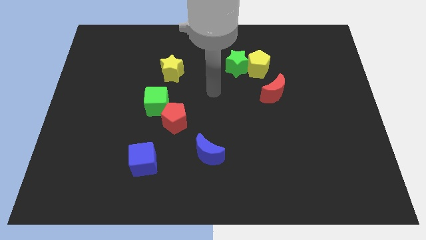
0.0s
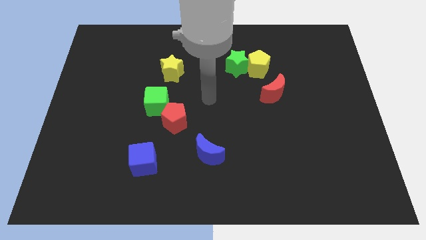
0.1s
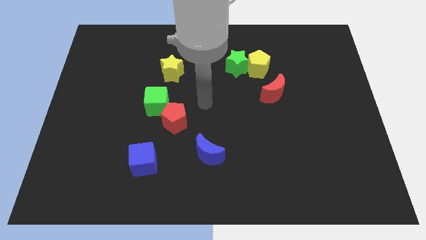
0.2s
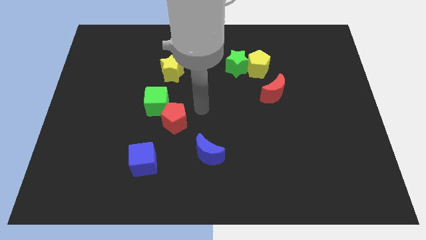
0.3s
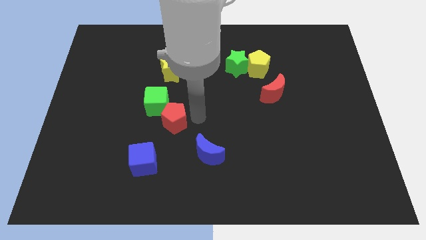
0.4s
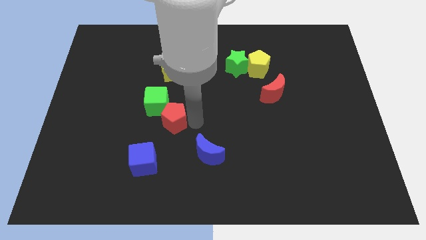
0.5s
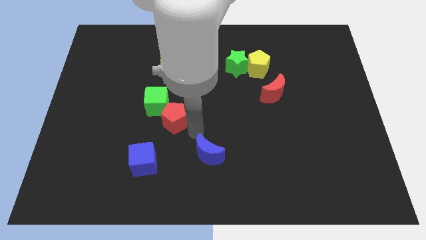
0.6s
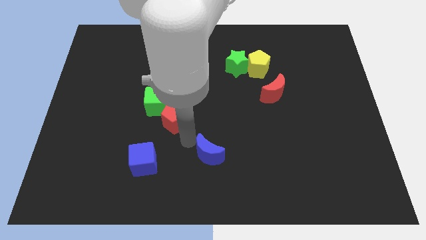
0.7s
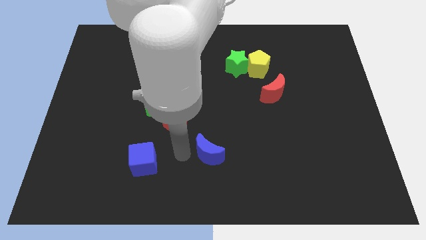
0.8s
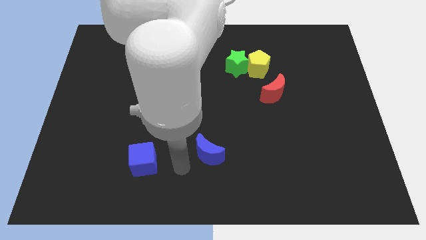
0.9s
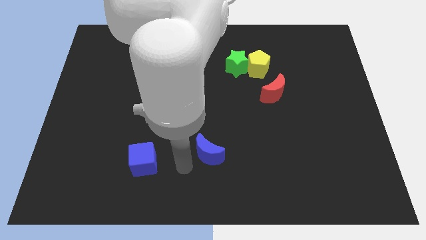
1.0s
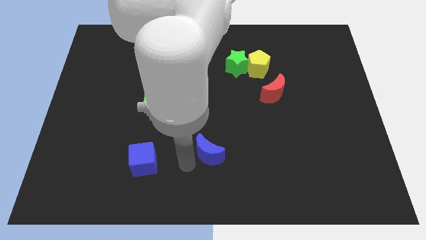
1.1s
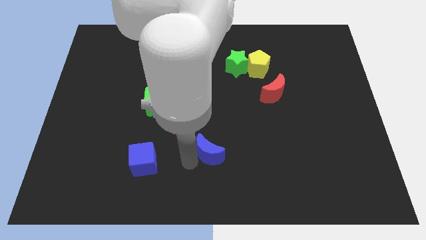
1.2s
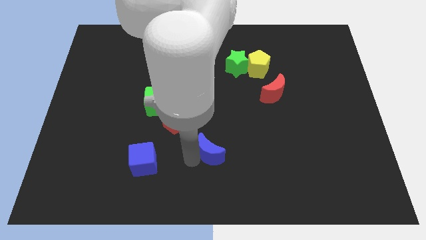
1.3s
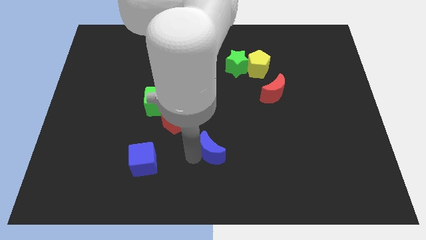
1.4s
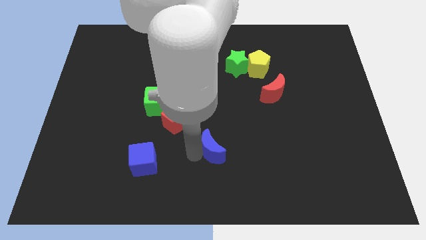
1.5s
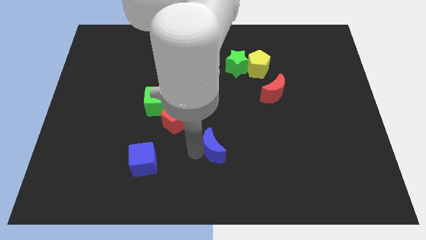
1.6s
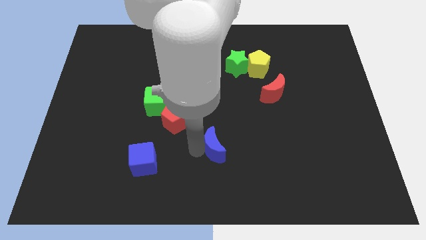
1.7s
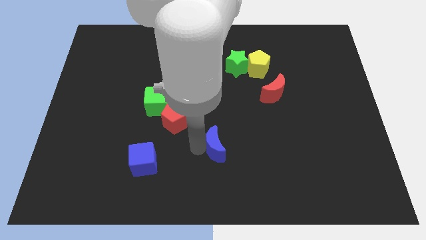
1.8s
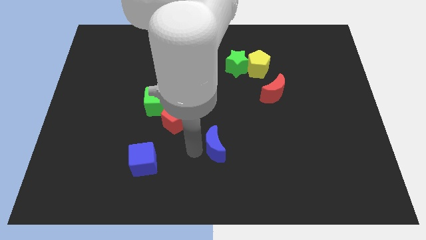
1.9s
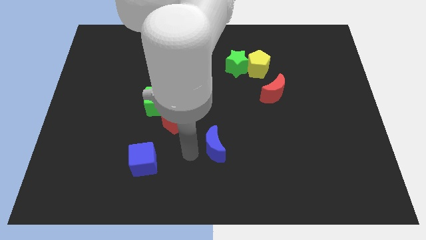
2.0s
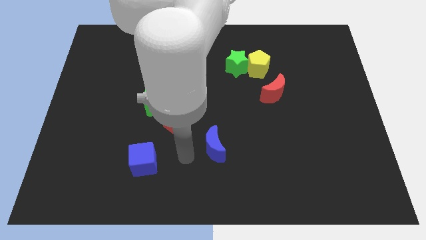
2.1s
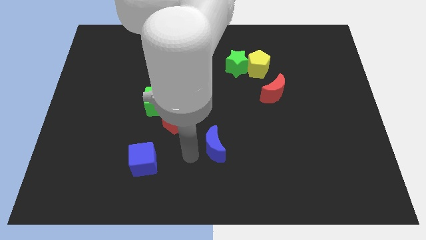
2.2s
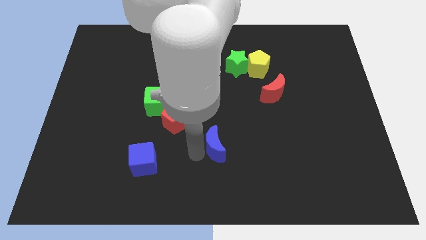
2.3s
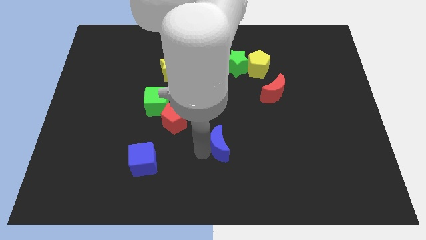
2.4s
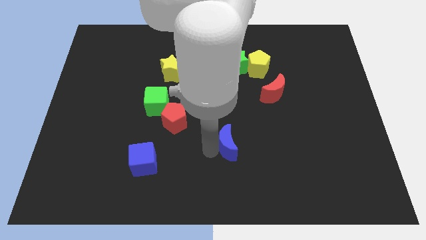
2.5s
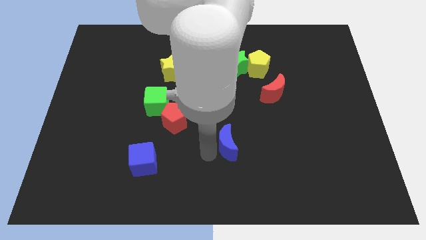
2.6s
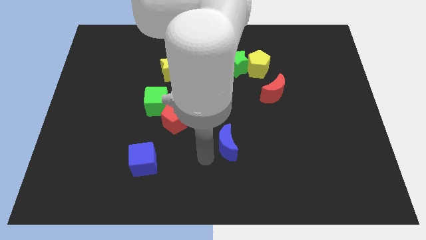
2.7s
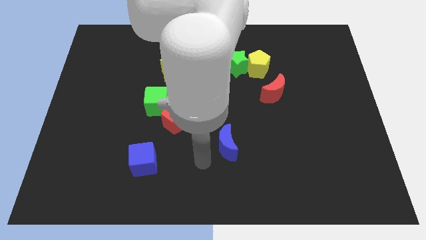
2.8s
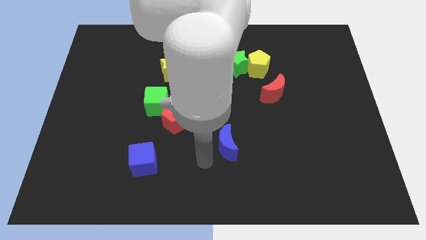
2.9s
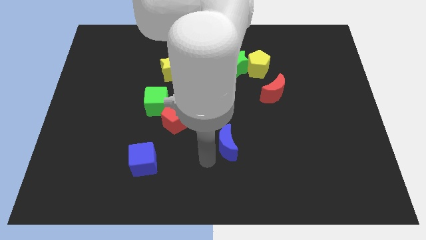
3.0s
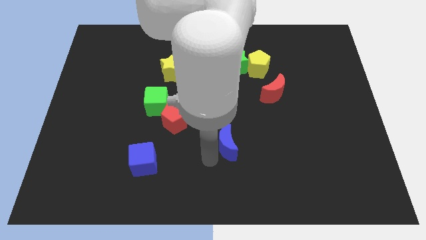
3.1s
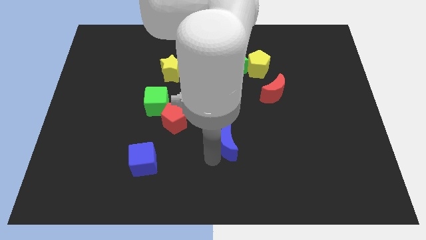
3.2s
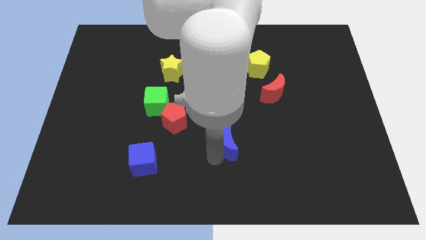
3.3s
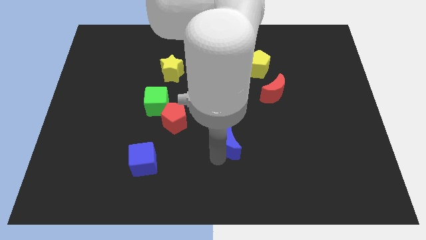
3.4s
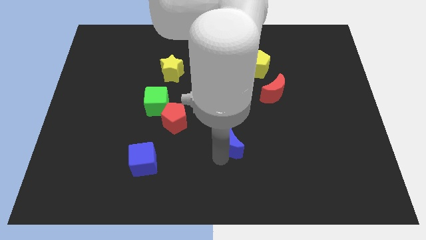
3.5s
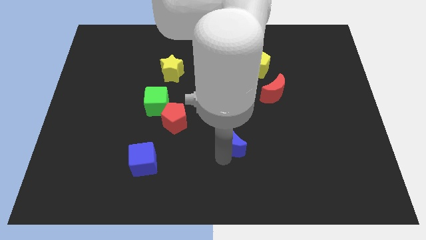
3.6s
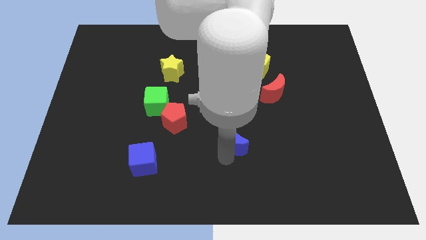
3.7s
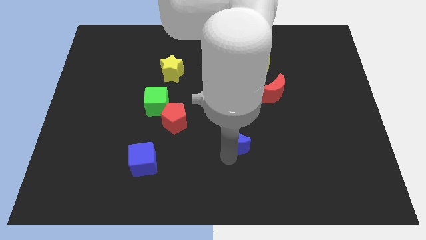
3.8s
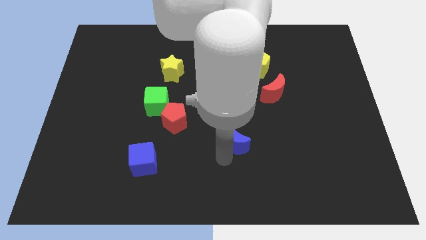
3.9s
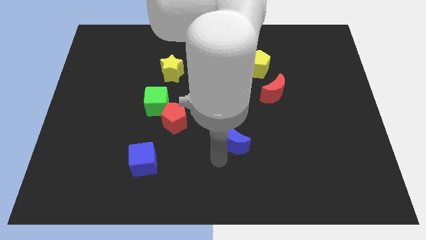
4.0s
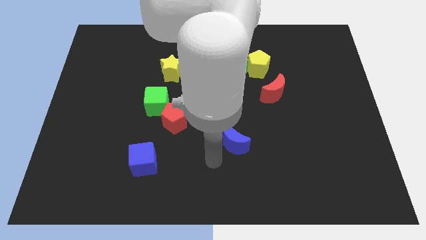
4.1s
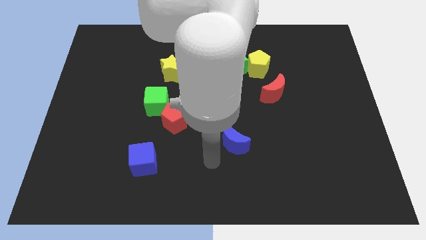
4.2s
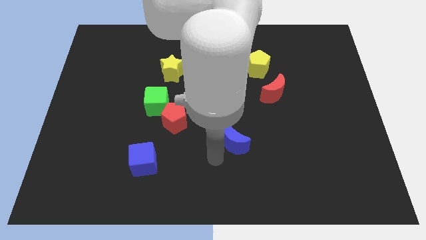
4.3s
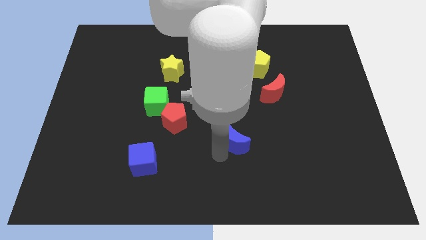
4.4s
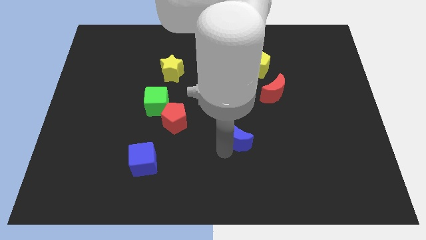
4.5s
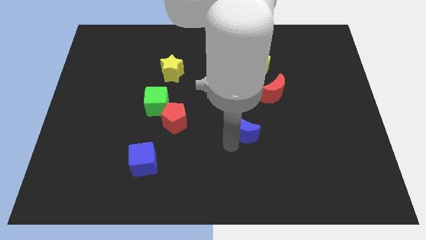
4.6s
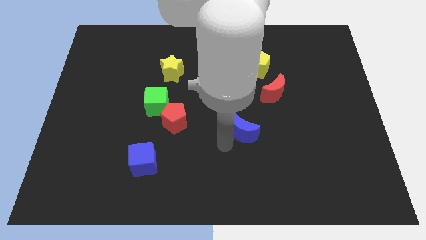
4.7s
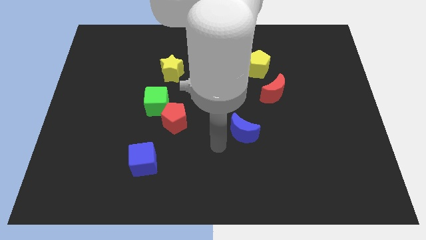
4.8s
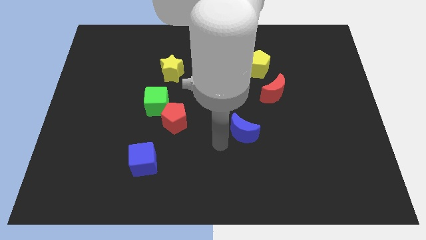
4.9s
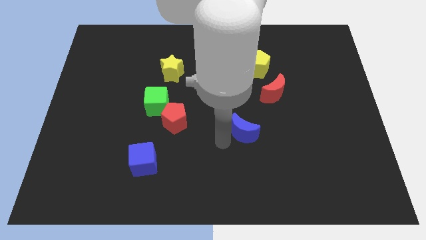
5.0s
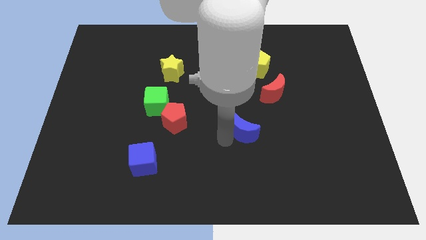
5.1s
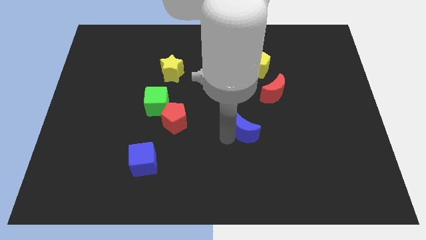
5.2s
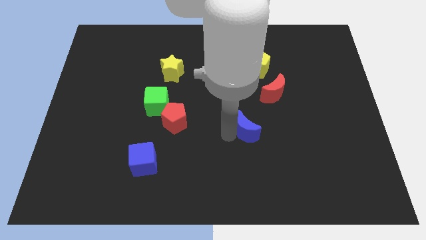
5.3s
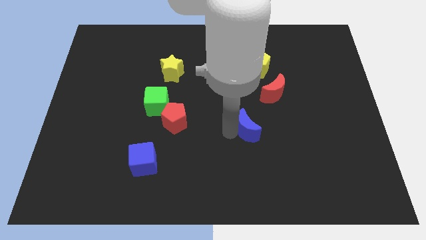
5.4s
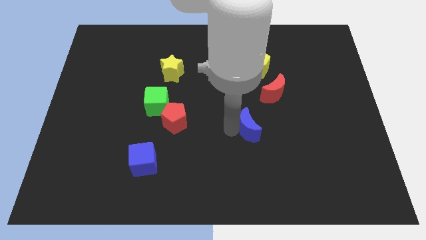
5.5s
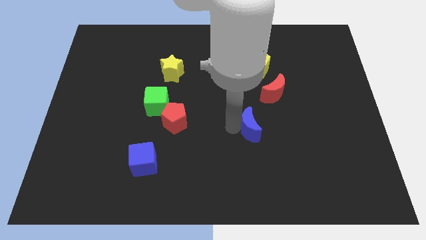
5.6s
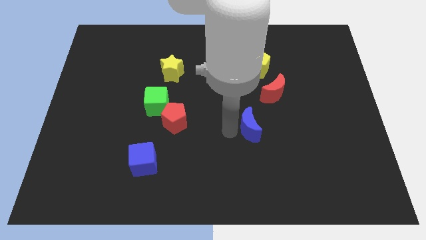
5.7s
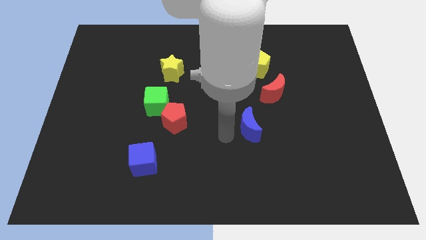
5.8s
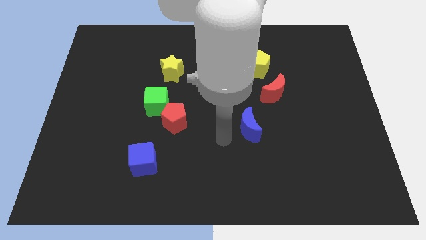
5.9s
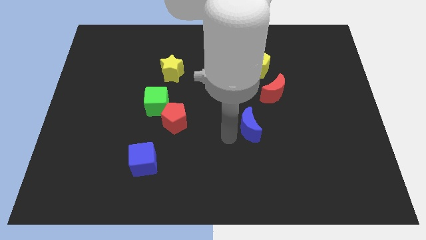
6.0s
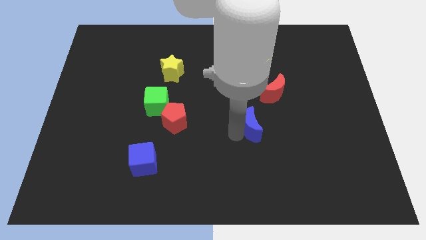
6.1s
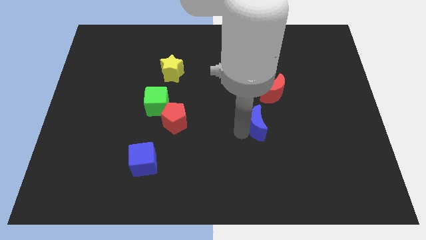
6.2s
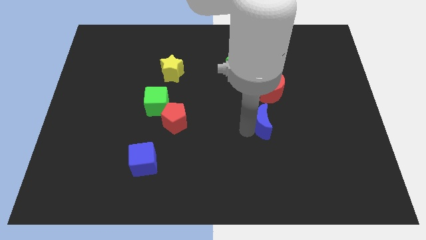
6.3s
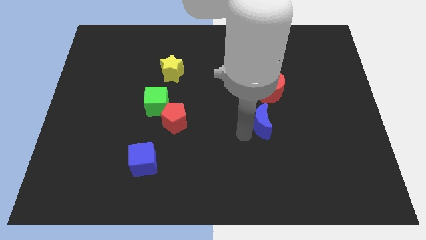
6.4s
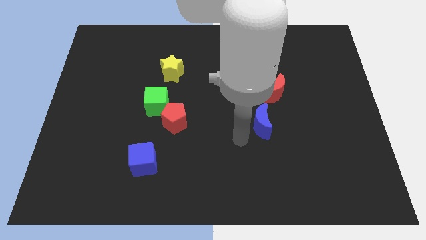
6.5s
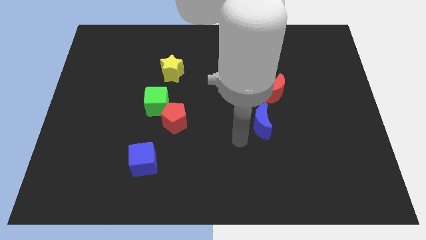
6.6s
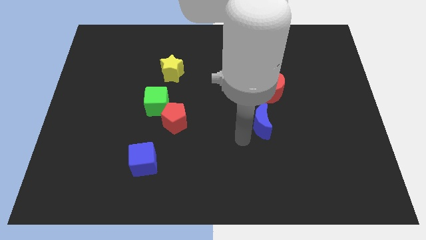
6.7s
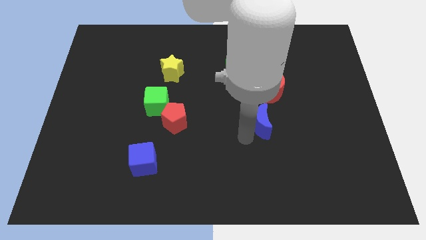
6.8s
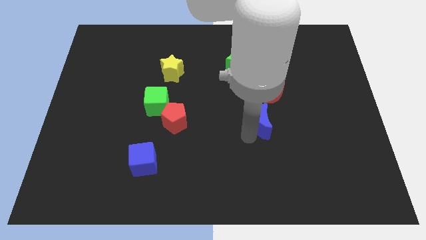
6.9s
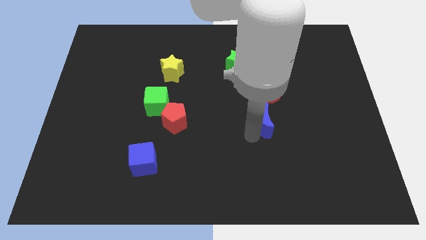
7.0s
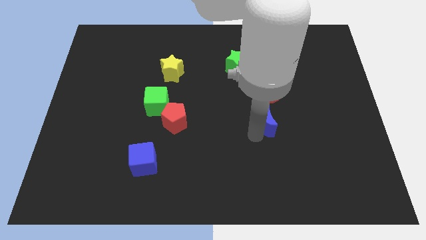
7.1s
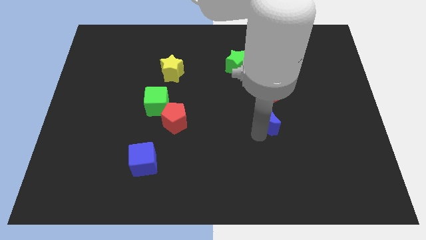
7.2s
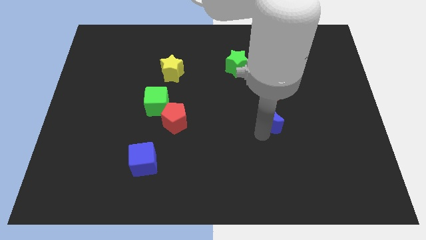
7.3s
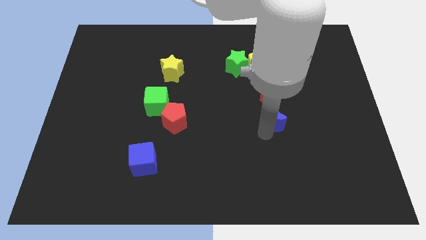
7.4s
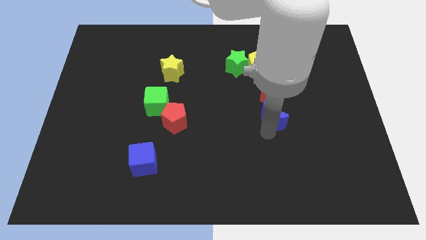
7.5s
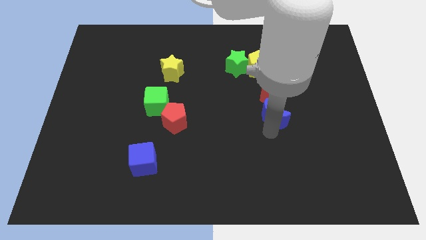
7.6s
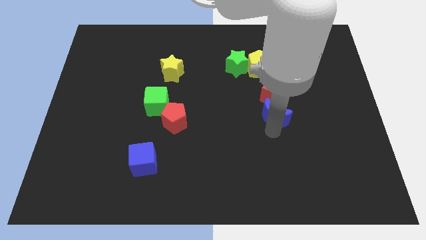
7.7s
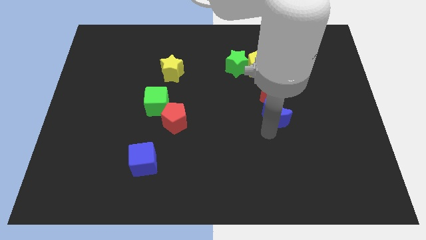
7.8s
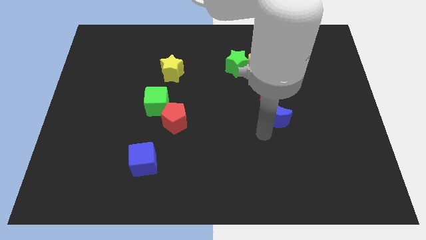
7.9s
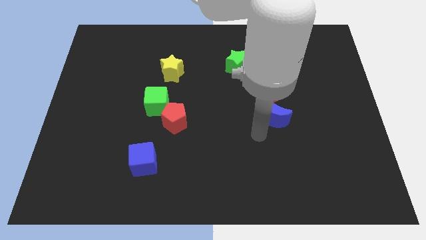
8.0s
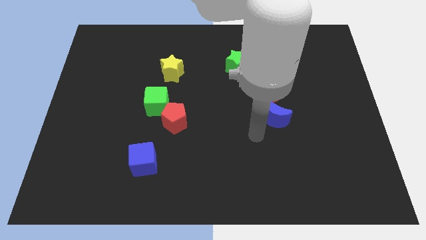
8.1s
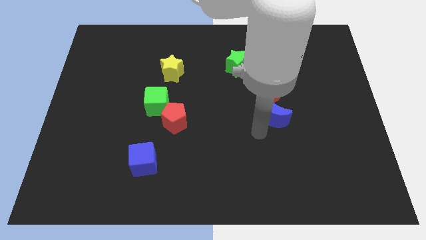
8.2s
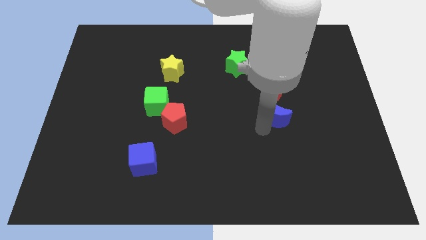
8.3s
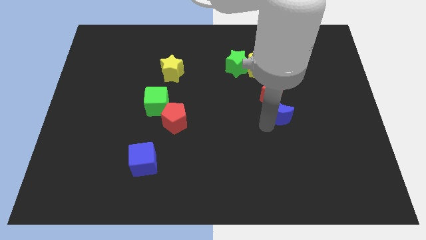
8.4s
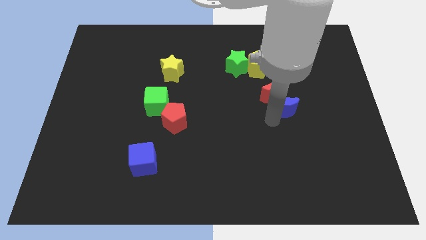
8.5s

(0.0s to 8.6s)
move the blue moon up and then to the right
